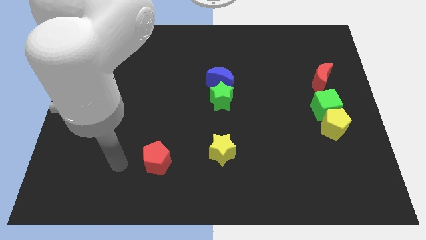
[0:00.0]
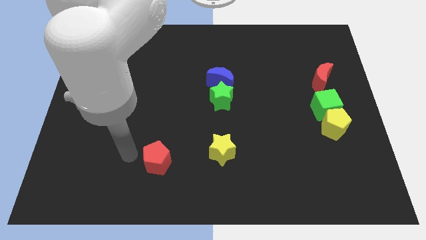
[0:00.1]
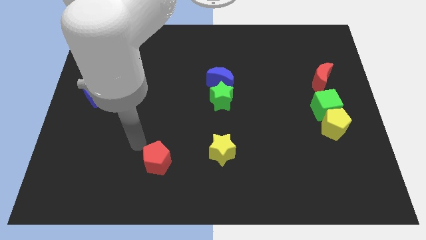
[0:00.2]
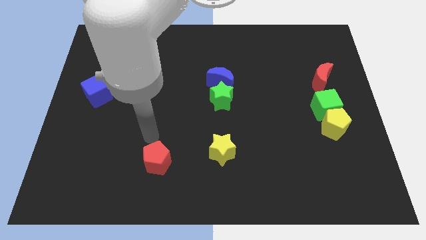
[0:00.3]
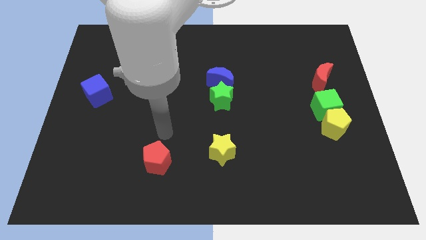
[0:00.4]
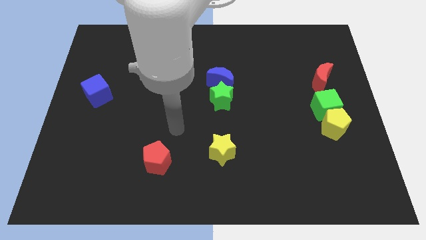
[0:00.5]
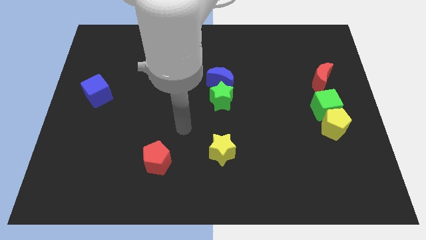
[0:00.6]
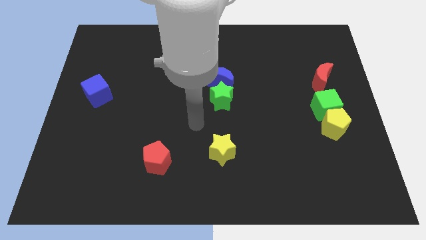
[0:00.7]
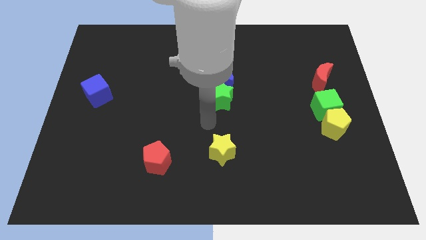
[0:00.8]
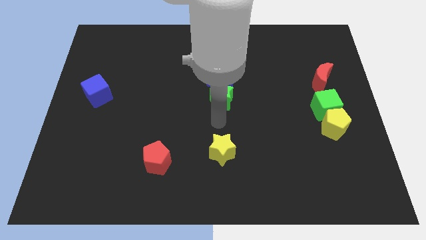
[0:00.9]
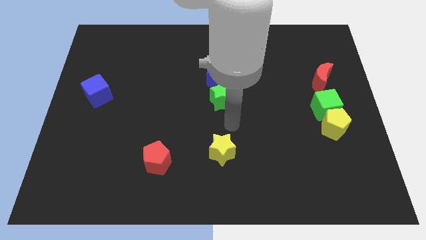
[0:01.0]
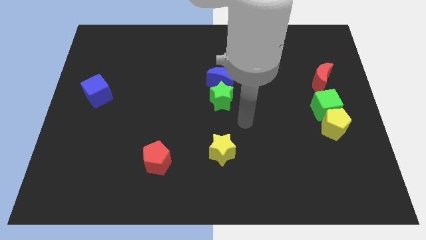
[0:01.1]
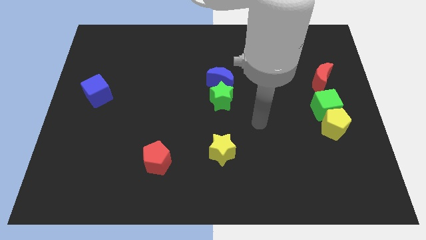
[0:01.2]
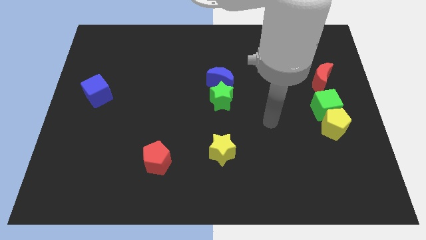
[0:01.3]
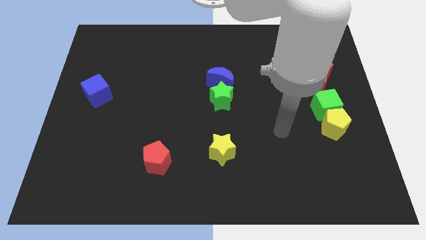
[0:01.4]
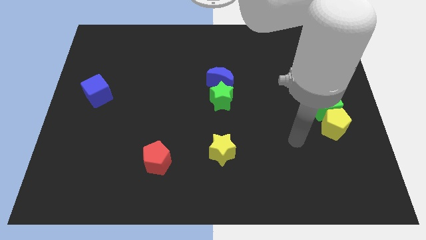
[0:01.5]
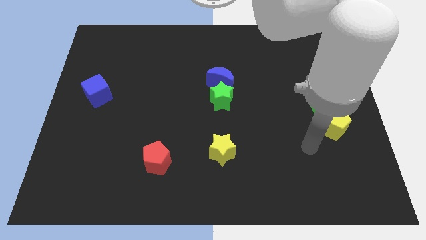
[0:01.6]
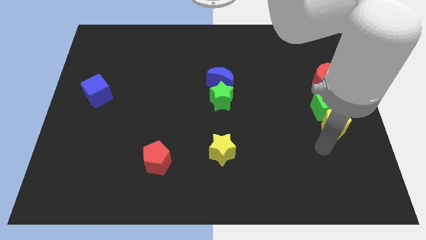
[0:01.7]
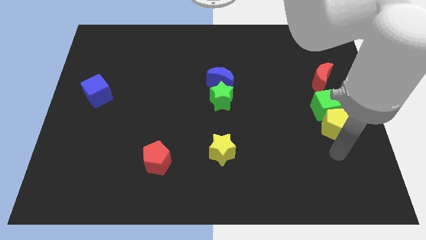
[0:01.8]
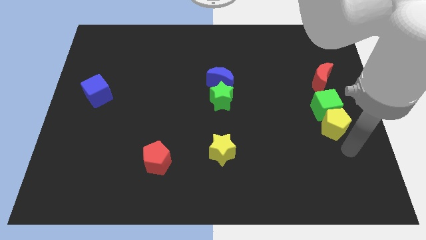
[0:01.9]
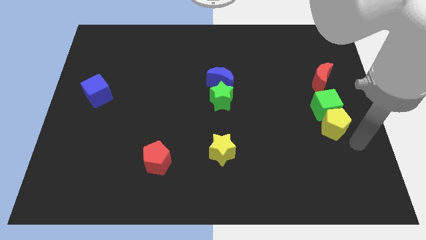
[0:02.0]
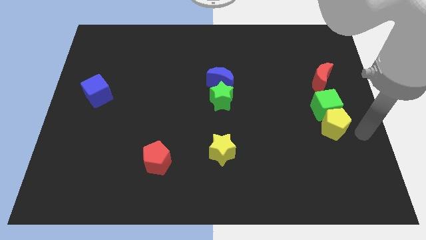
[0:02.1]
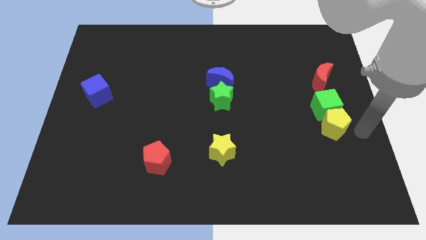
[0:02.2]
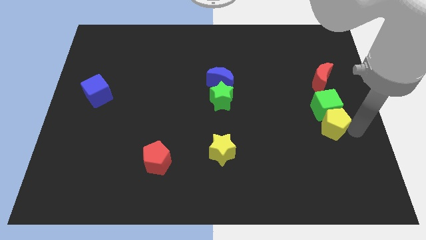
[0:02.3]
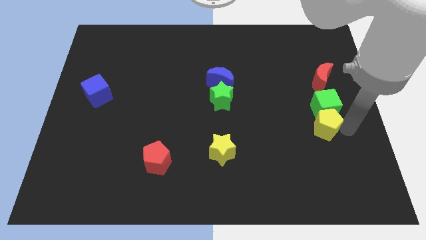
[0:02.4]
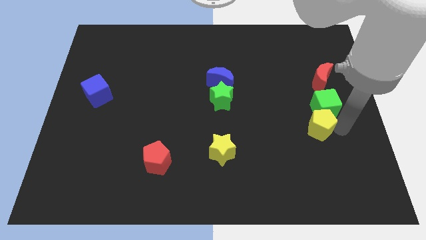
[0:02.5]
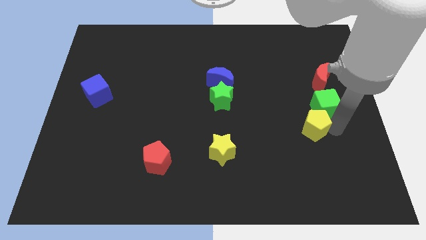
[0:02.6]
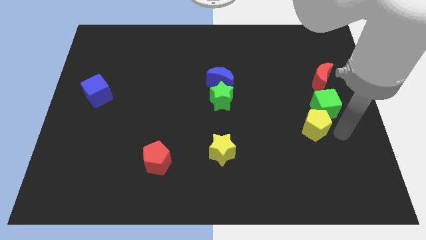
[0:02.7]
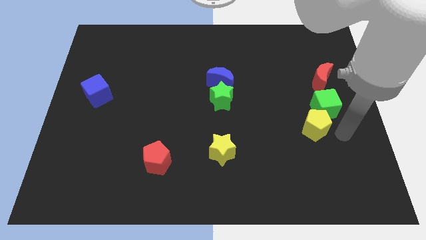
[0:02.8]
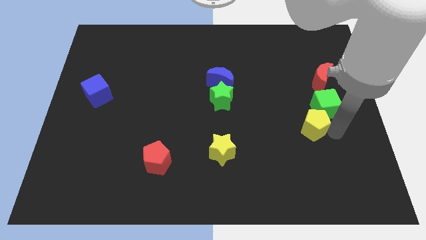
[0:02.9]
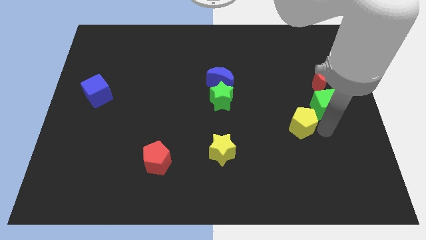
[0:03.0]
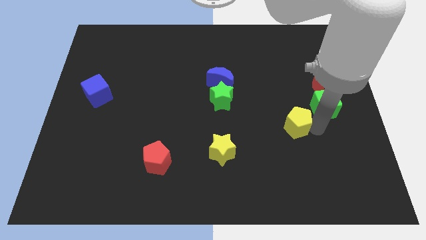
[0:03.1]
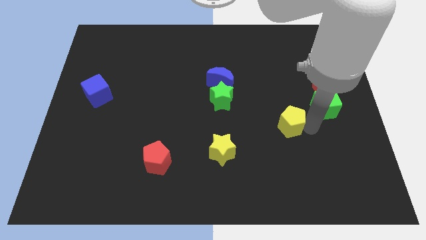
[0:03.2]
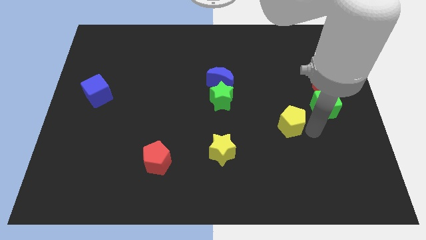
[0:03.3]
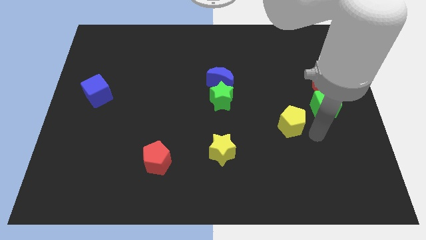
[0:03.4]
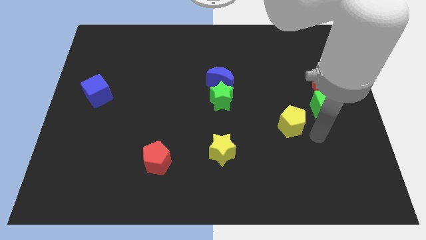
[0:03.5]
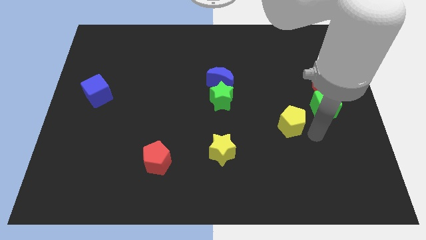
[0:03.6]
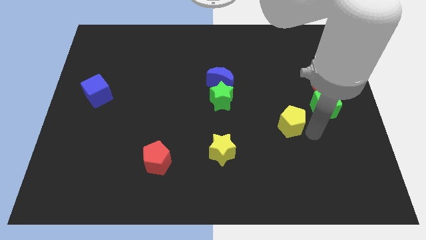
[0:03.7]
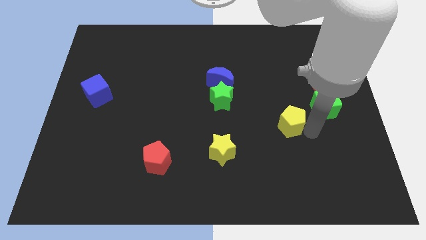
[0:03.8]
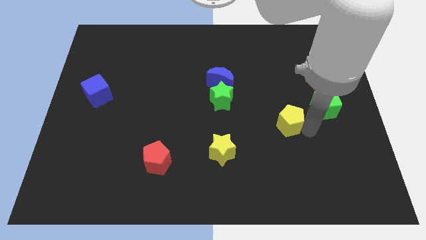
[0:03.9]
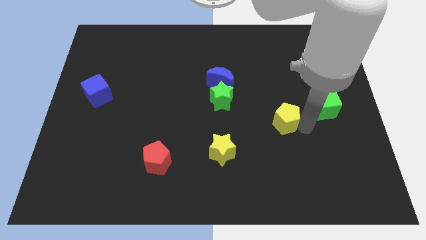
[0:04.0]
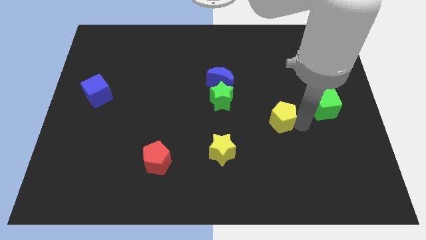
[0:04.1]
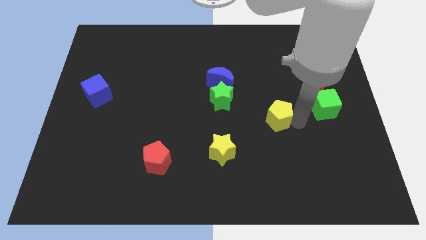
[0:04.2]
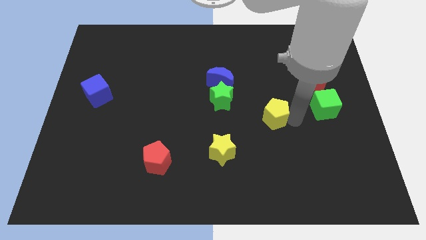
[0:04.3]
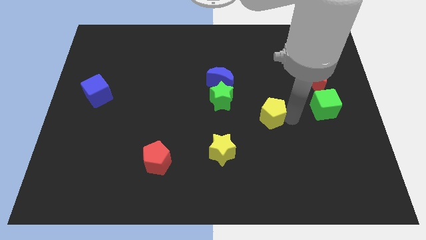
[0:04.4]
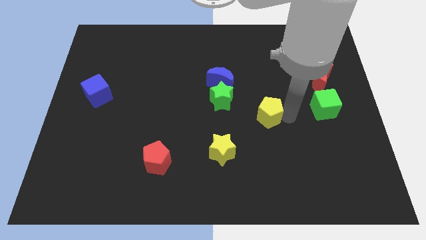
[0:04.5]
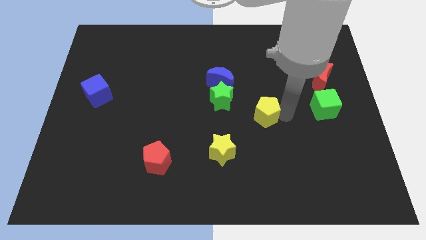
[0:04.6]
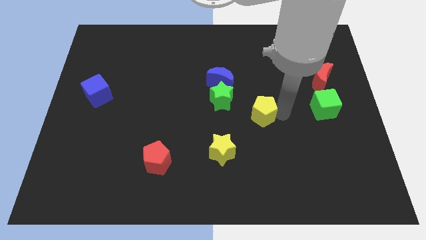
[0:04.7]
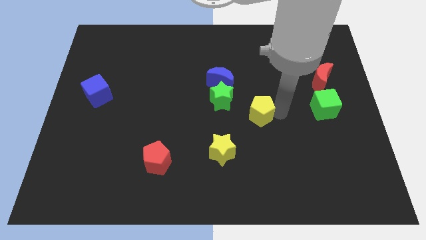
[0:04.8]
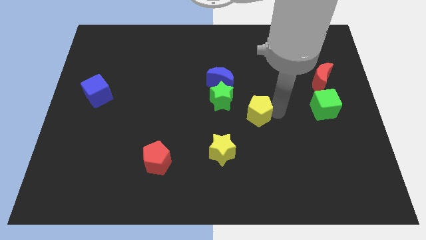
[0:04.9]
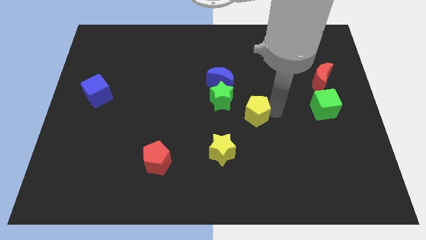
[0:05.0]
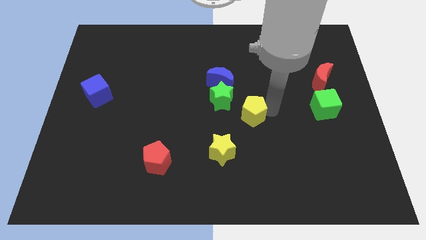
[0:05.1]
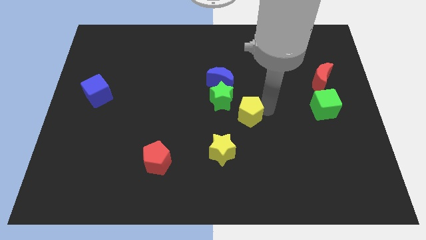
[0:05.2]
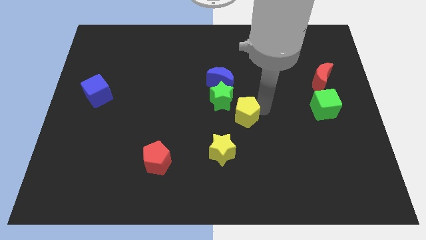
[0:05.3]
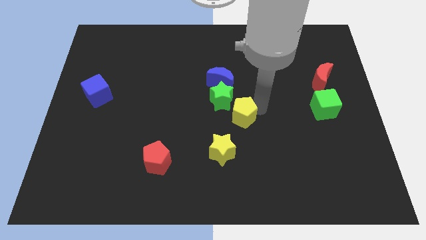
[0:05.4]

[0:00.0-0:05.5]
move the yellow pentagon left

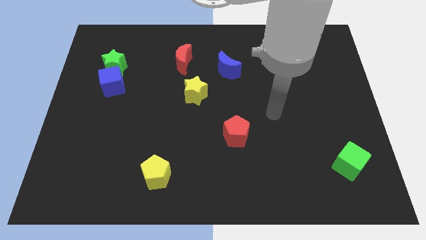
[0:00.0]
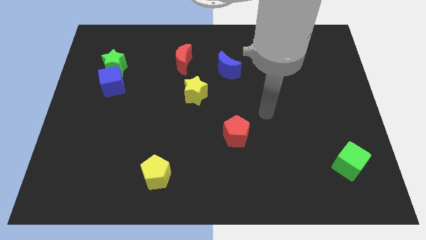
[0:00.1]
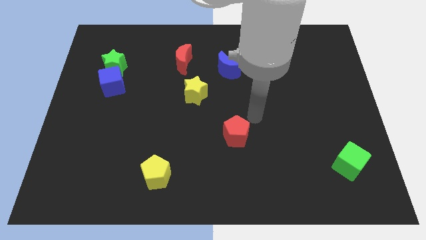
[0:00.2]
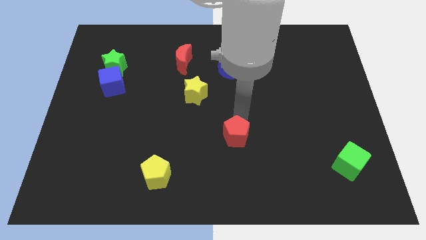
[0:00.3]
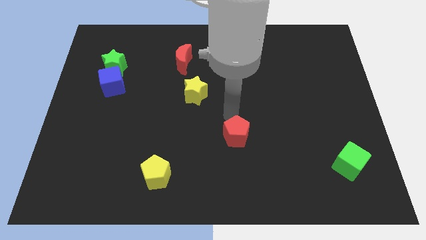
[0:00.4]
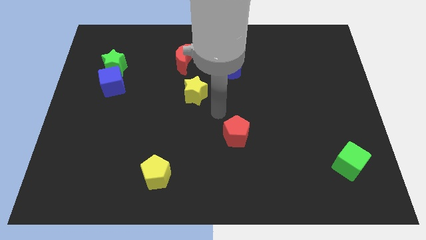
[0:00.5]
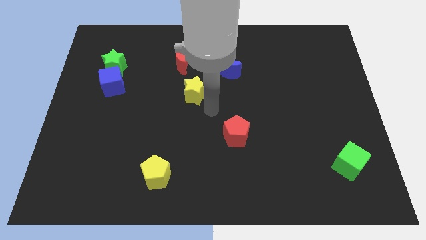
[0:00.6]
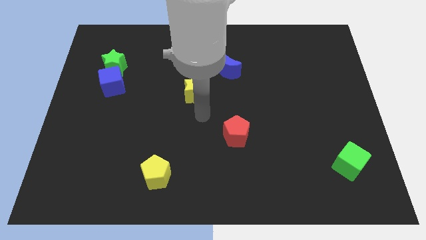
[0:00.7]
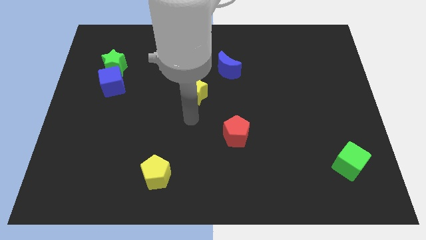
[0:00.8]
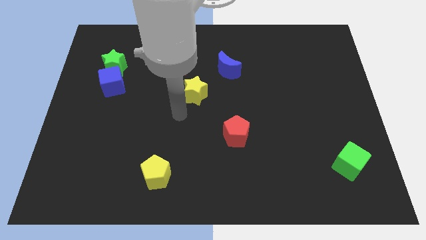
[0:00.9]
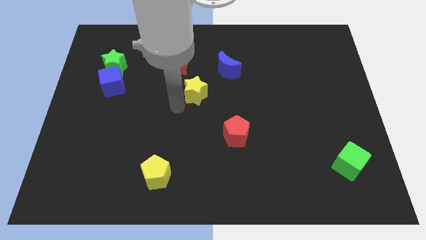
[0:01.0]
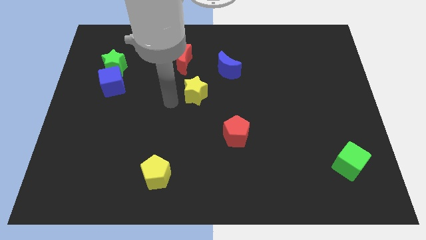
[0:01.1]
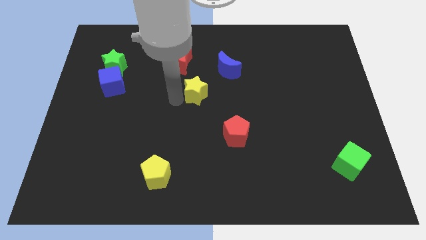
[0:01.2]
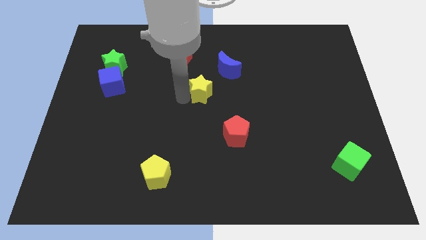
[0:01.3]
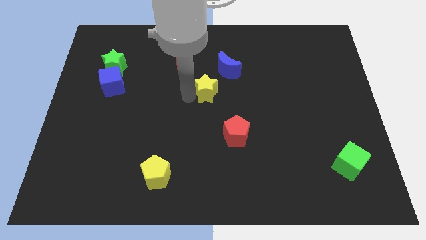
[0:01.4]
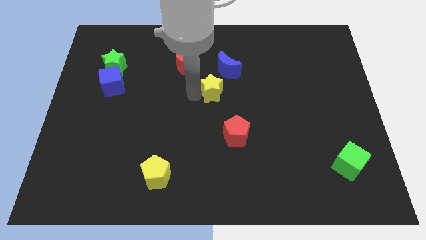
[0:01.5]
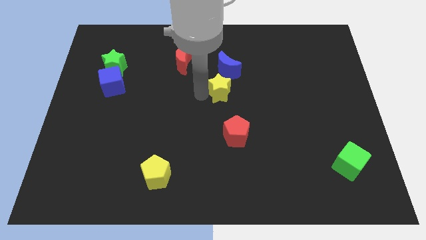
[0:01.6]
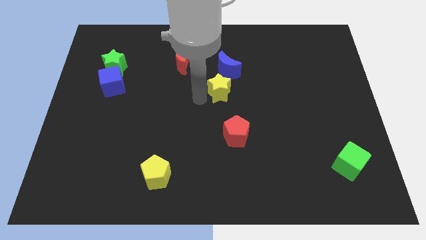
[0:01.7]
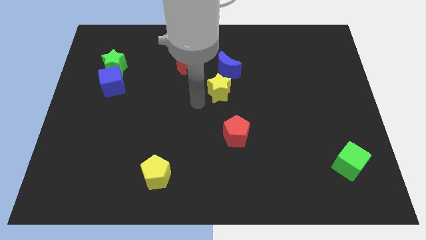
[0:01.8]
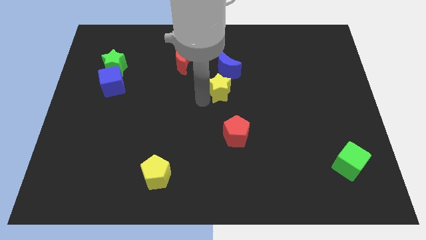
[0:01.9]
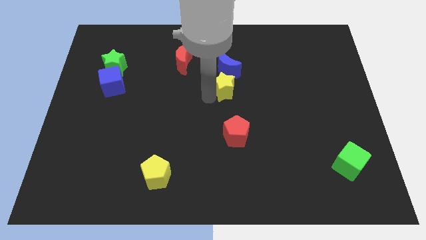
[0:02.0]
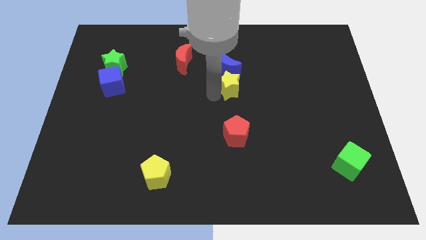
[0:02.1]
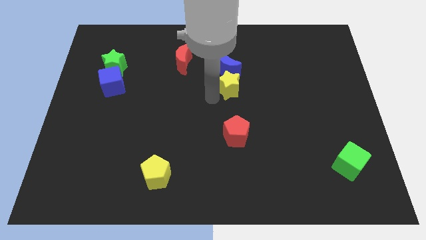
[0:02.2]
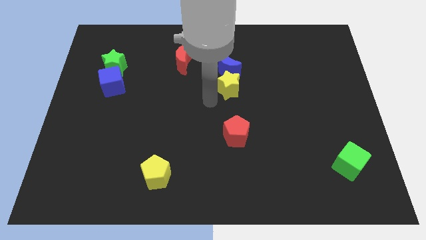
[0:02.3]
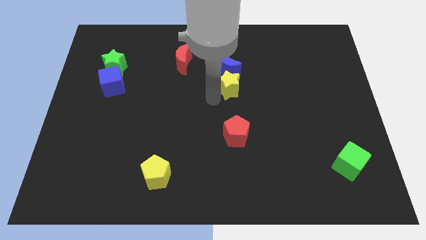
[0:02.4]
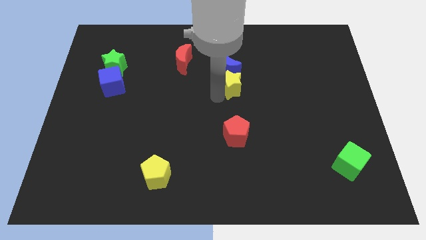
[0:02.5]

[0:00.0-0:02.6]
slide the yellow star slightly upwards and right
